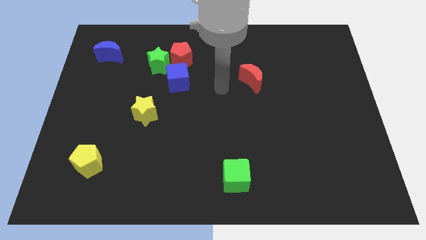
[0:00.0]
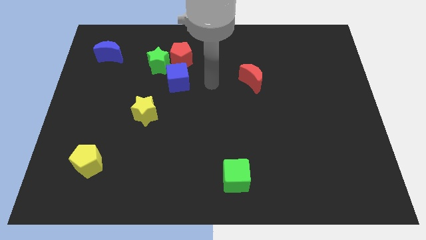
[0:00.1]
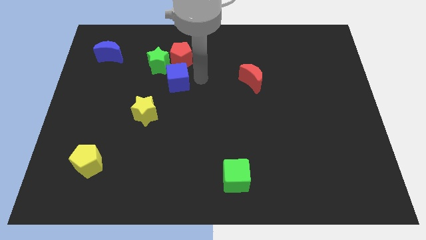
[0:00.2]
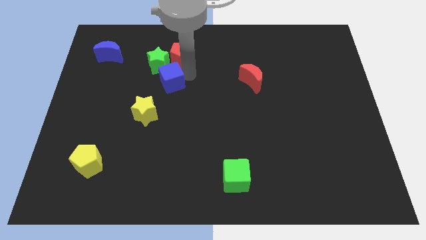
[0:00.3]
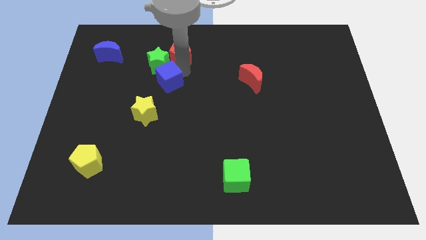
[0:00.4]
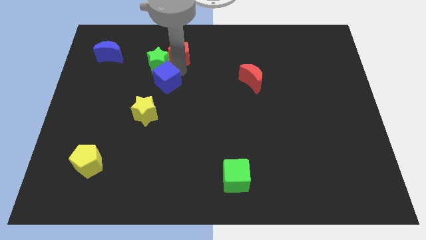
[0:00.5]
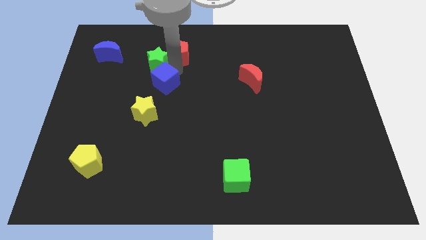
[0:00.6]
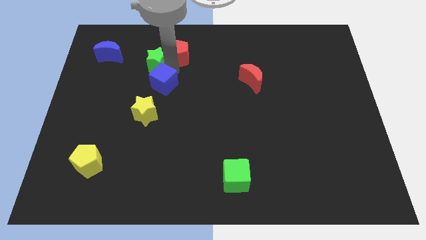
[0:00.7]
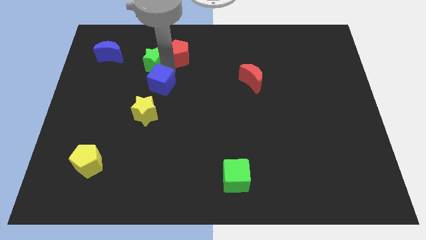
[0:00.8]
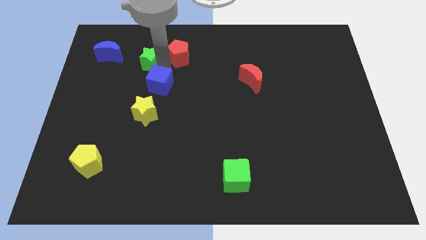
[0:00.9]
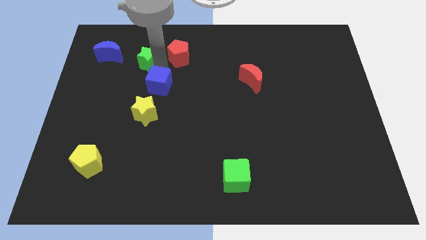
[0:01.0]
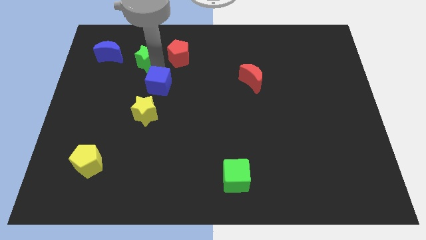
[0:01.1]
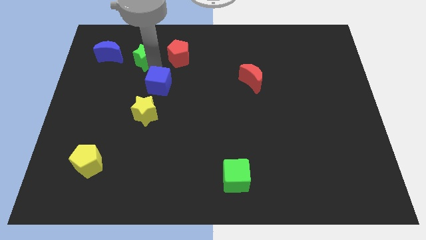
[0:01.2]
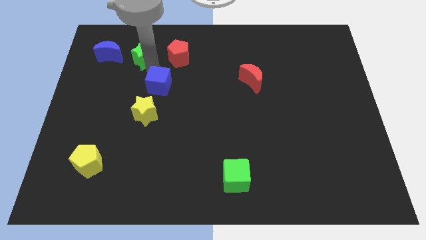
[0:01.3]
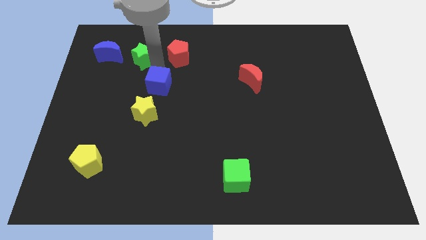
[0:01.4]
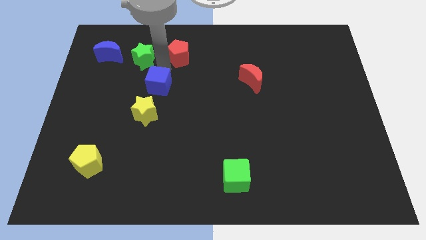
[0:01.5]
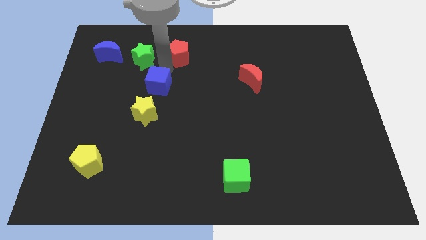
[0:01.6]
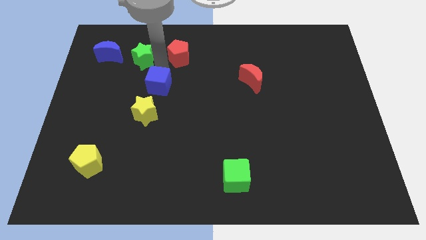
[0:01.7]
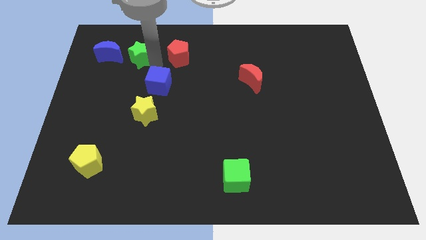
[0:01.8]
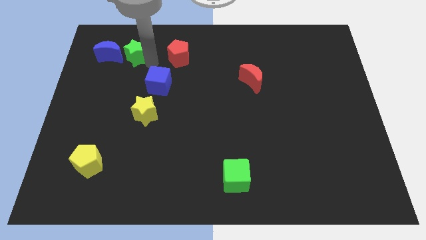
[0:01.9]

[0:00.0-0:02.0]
pull the green star apart from the red pentagon and blue cube

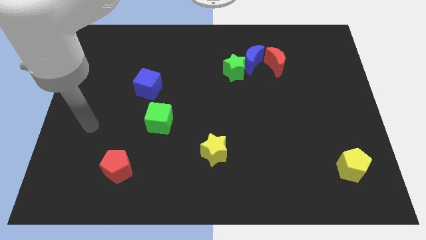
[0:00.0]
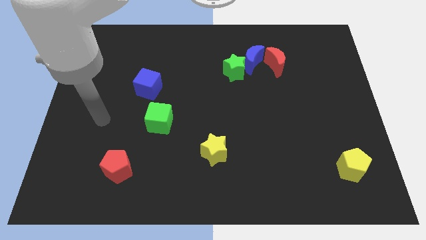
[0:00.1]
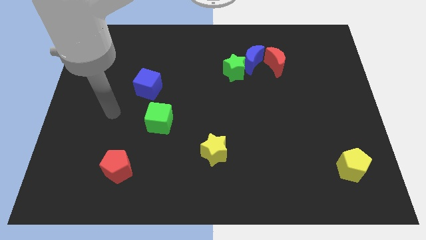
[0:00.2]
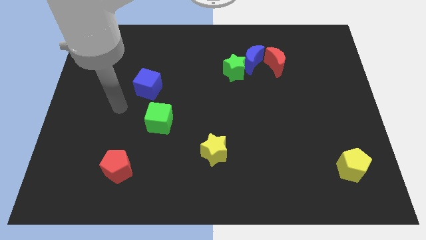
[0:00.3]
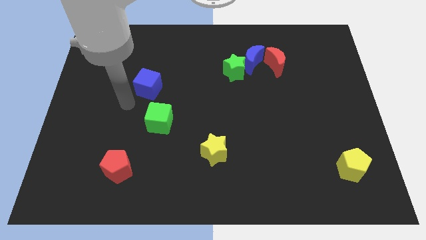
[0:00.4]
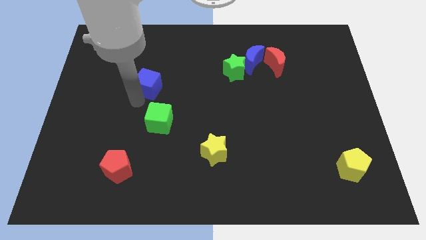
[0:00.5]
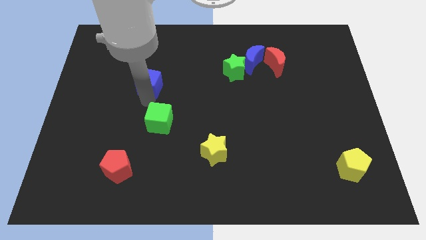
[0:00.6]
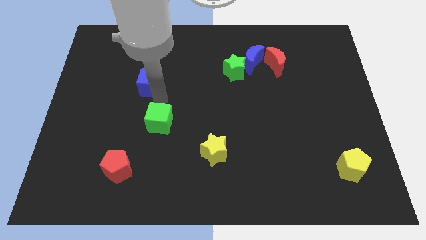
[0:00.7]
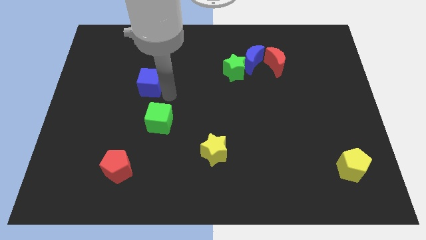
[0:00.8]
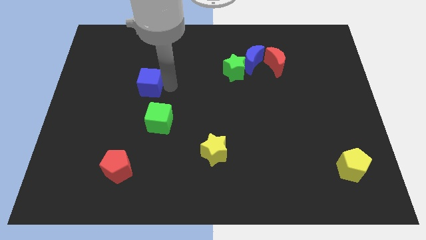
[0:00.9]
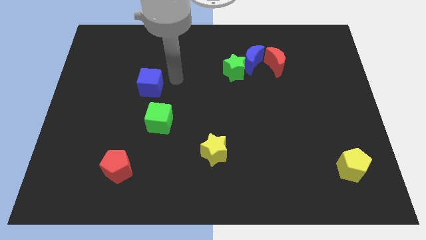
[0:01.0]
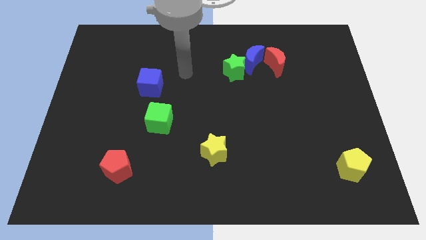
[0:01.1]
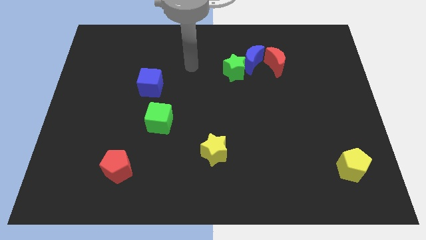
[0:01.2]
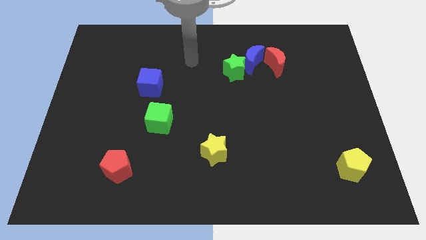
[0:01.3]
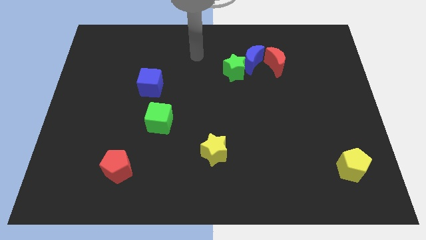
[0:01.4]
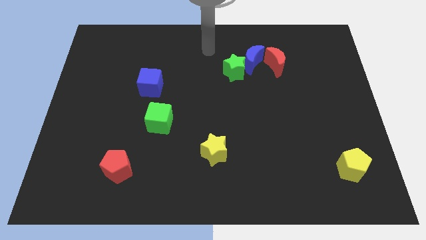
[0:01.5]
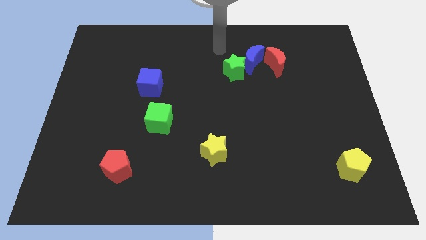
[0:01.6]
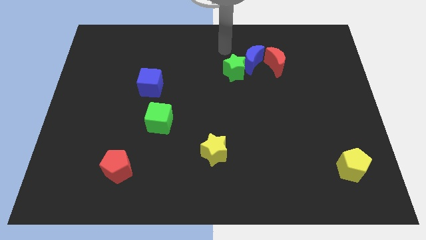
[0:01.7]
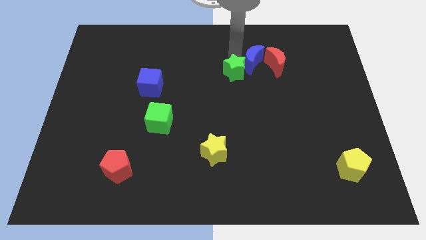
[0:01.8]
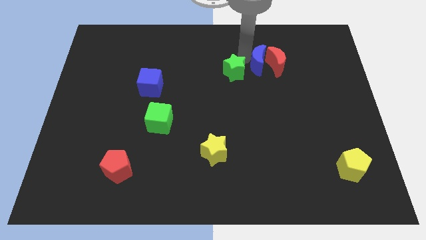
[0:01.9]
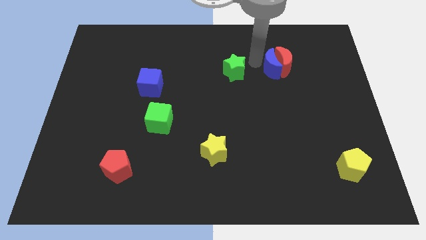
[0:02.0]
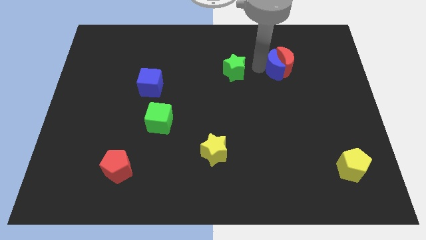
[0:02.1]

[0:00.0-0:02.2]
pull the green star apart from the blue moon

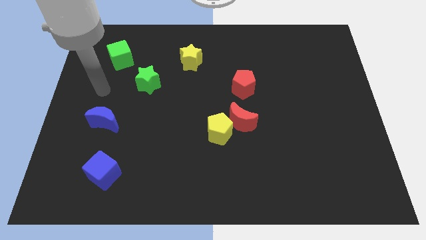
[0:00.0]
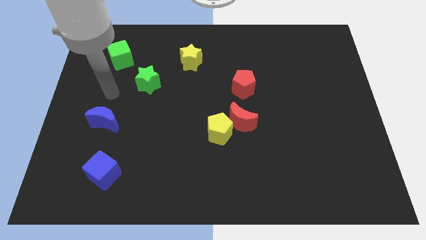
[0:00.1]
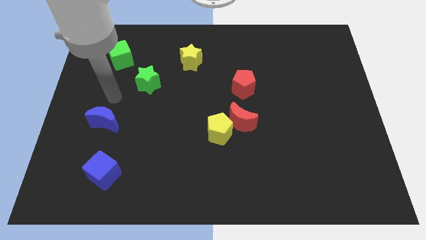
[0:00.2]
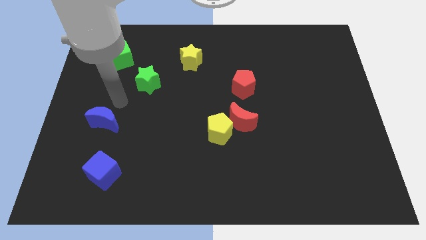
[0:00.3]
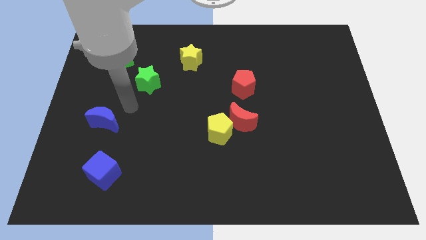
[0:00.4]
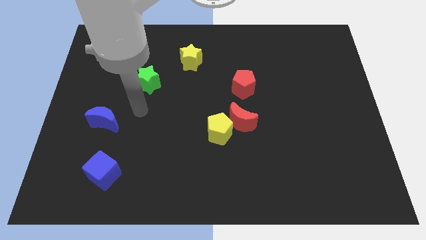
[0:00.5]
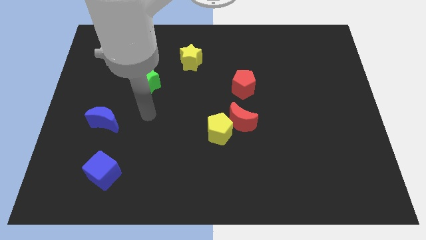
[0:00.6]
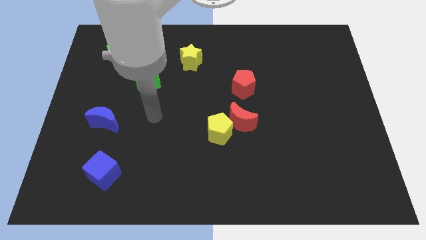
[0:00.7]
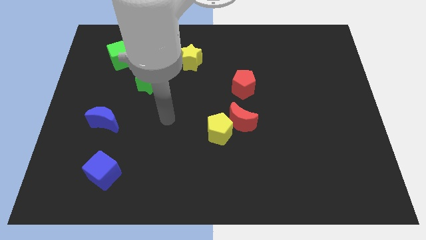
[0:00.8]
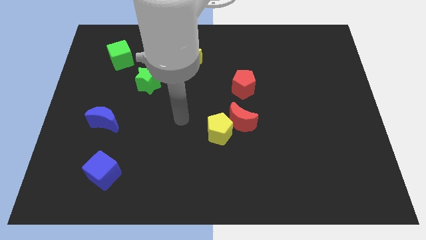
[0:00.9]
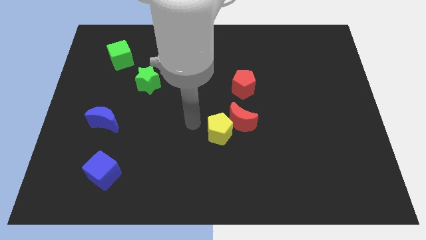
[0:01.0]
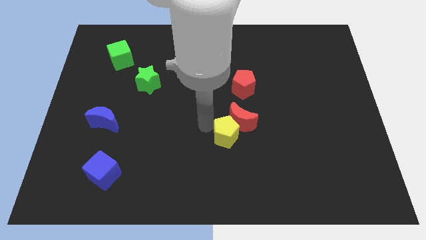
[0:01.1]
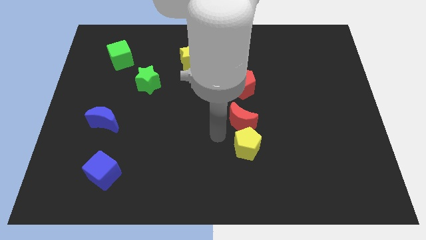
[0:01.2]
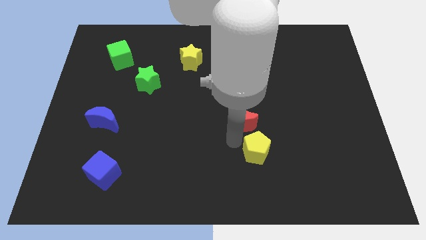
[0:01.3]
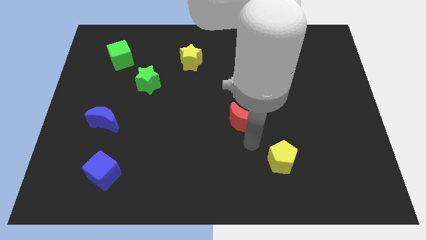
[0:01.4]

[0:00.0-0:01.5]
move the red moon away from the yellow pentagon

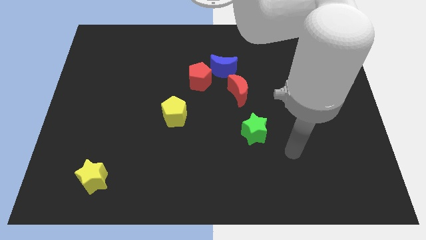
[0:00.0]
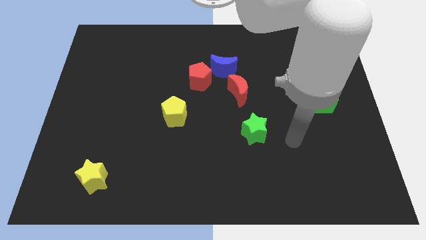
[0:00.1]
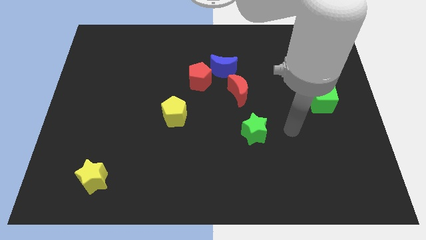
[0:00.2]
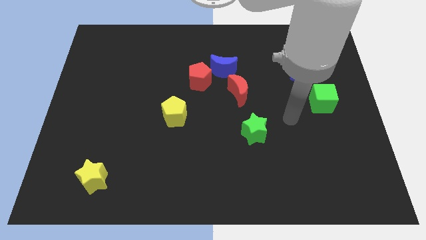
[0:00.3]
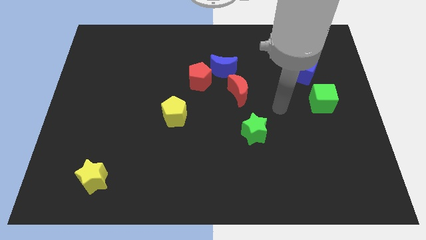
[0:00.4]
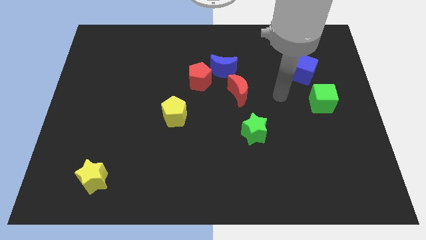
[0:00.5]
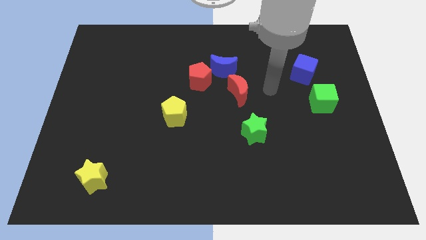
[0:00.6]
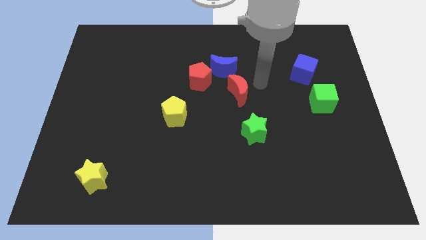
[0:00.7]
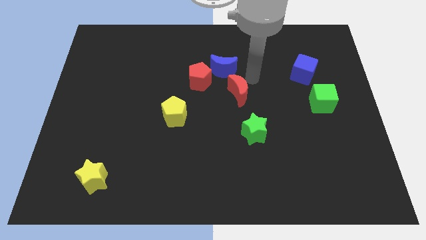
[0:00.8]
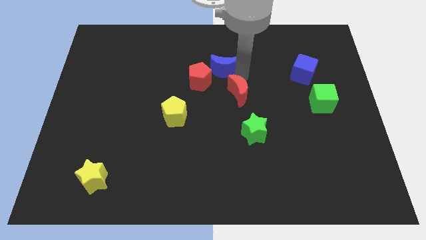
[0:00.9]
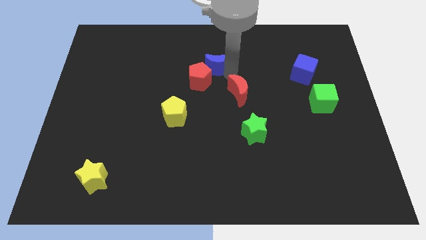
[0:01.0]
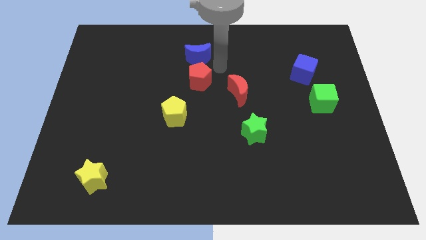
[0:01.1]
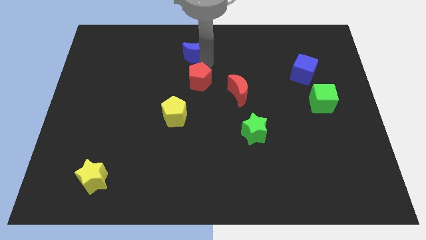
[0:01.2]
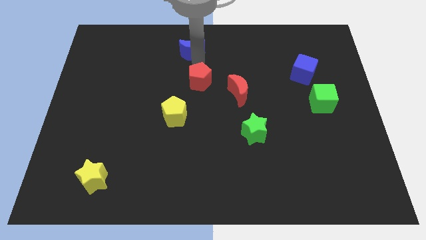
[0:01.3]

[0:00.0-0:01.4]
move the red pentagon away from the blue moon

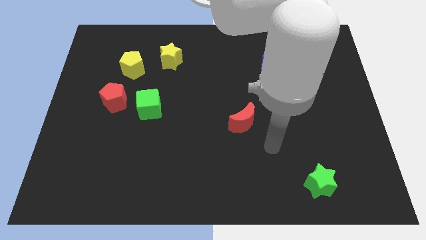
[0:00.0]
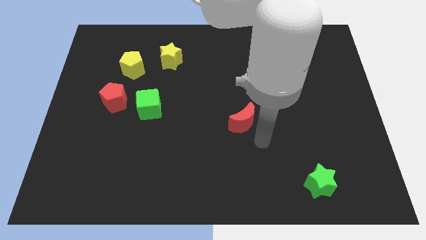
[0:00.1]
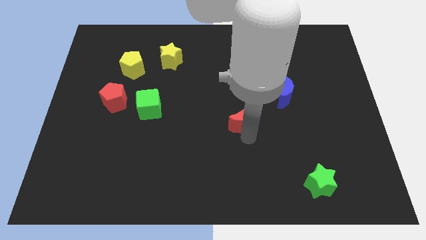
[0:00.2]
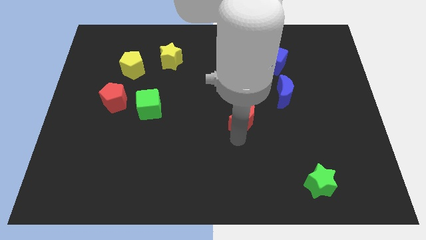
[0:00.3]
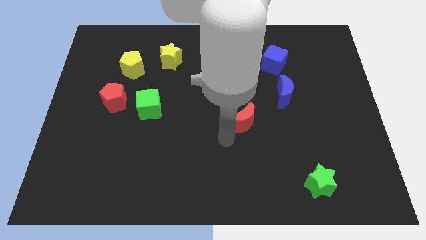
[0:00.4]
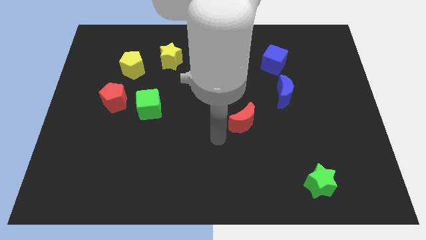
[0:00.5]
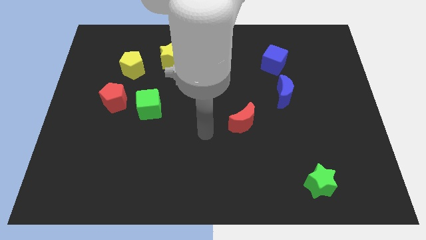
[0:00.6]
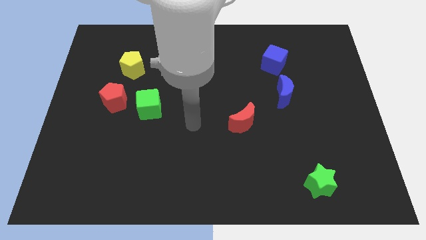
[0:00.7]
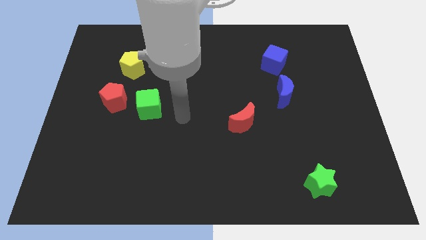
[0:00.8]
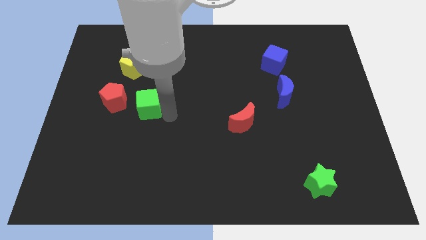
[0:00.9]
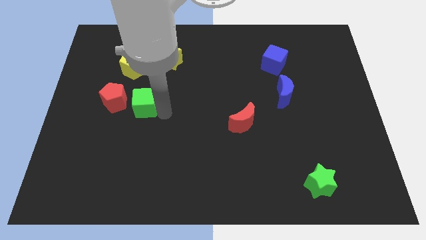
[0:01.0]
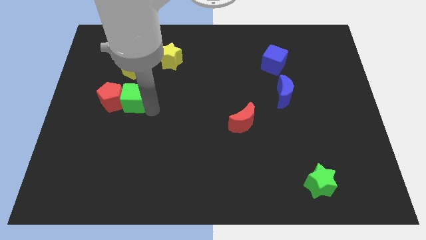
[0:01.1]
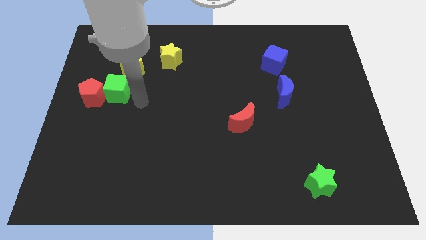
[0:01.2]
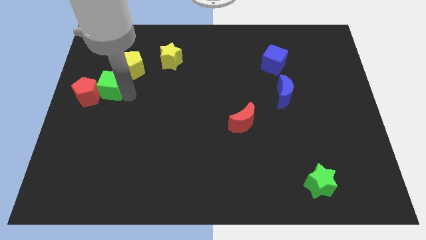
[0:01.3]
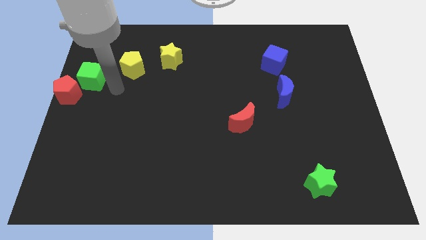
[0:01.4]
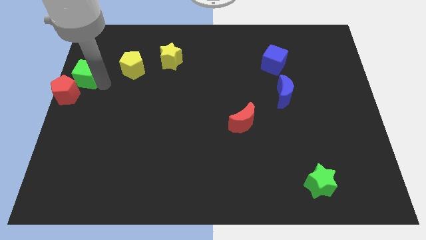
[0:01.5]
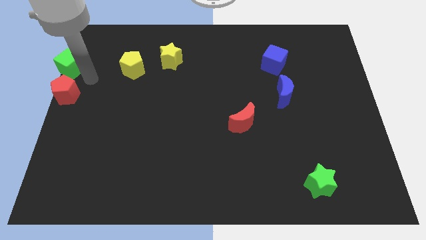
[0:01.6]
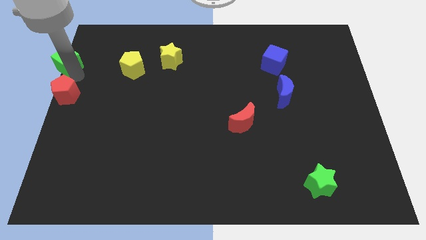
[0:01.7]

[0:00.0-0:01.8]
move the red pentagon away from the green cube

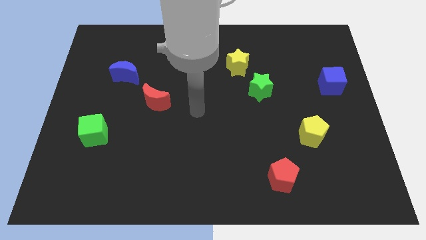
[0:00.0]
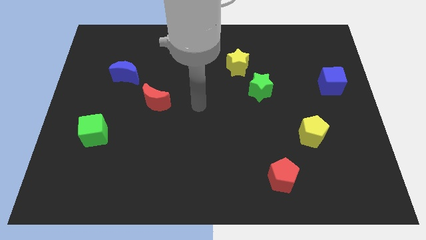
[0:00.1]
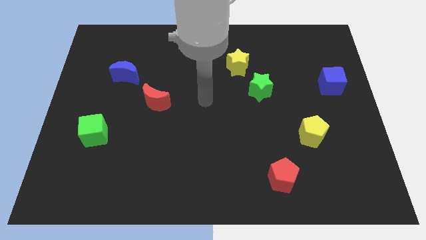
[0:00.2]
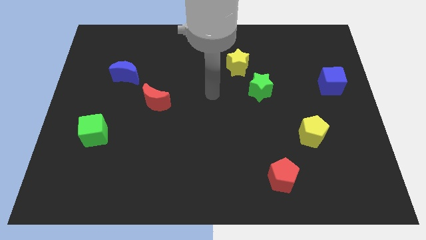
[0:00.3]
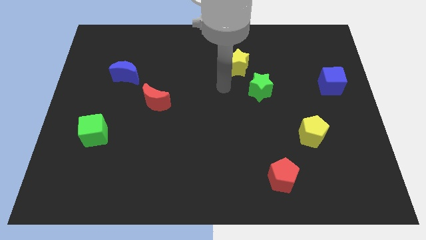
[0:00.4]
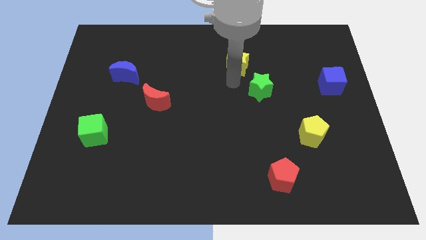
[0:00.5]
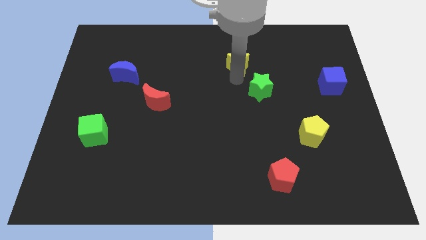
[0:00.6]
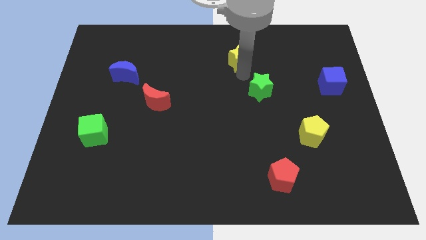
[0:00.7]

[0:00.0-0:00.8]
move the green star away from the yellow star
